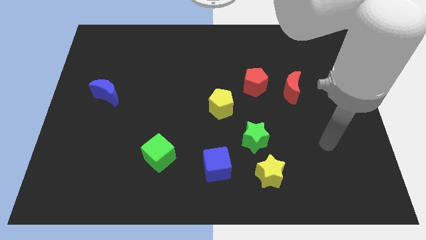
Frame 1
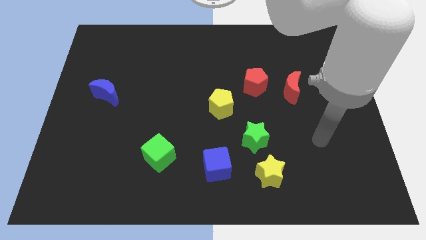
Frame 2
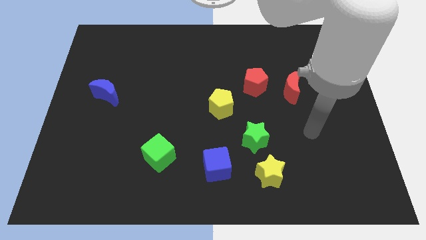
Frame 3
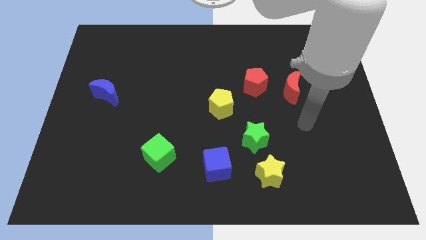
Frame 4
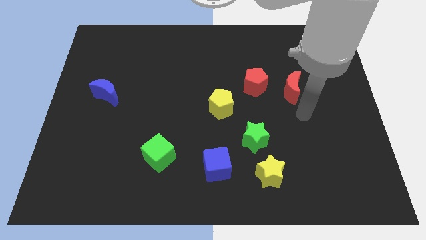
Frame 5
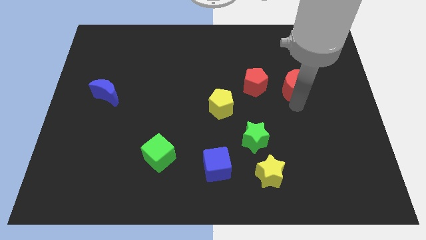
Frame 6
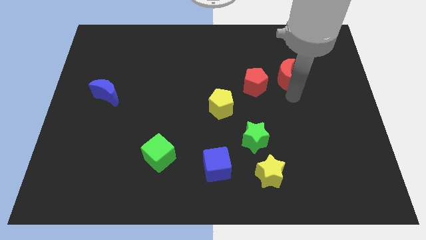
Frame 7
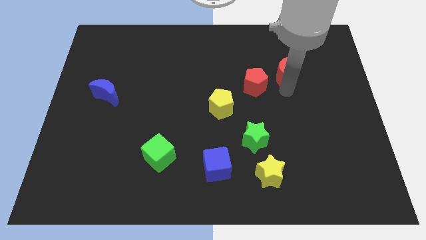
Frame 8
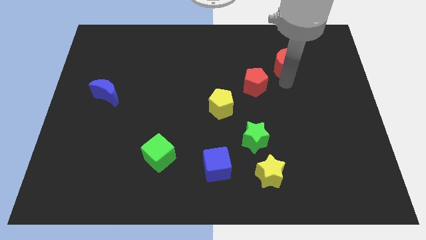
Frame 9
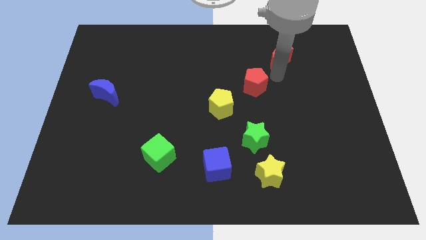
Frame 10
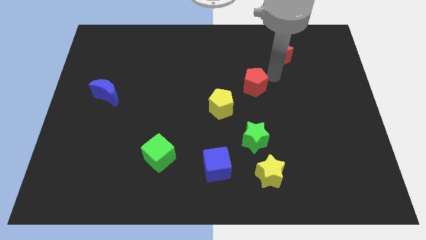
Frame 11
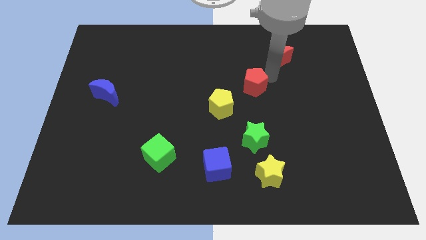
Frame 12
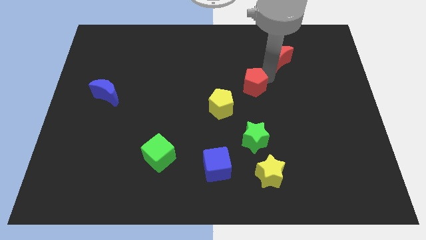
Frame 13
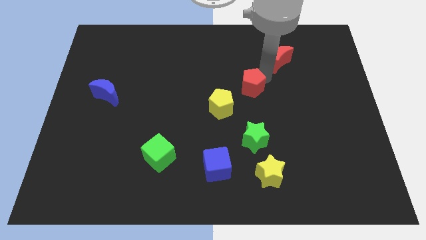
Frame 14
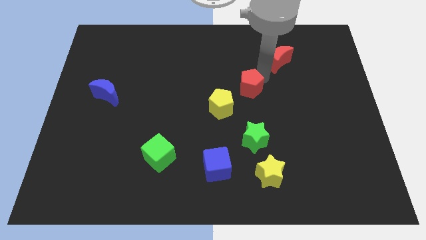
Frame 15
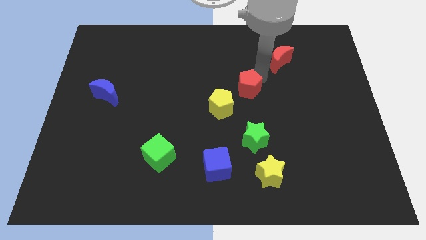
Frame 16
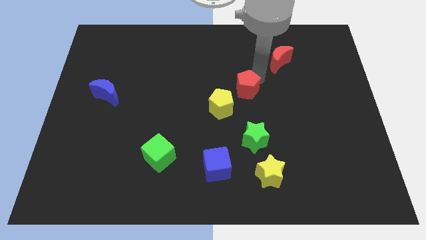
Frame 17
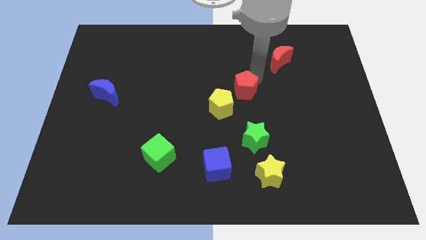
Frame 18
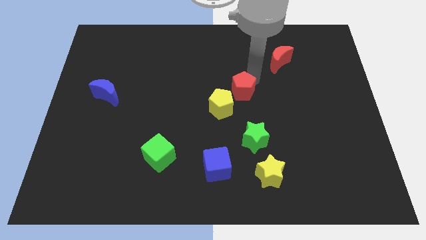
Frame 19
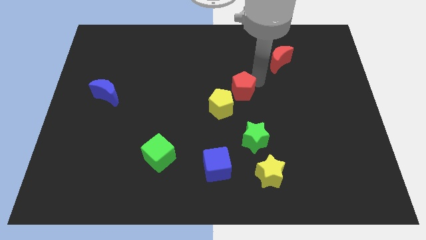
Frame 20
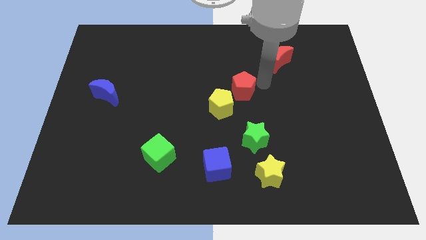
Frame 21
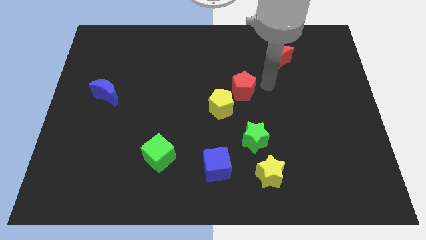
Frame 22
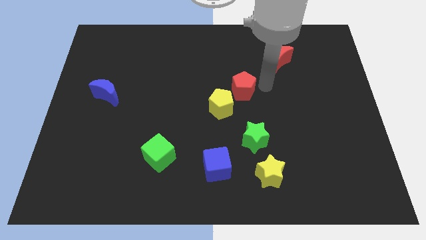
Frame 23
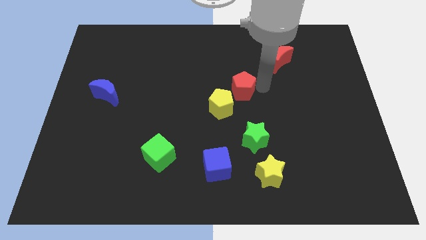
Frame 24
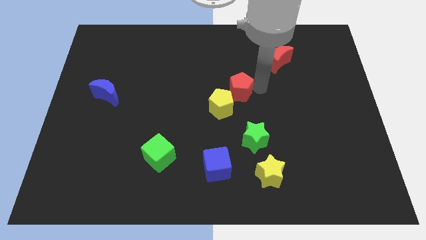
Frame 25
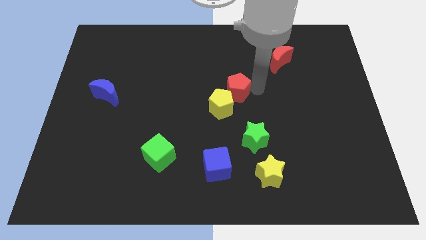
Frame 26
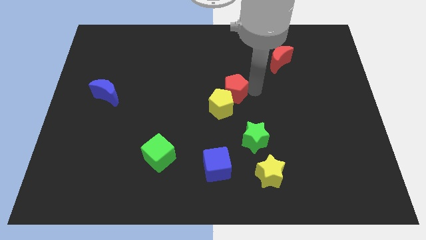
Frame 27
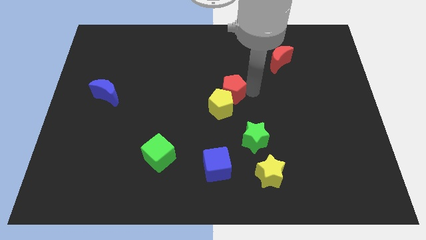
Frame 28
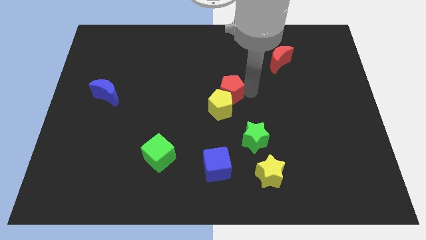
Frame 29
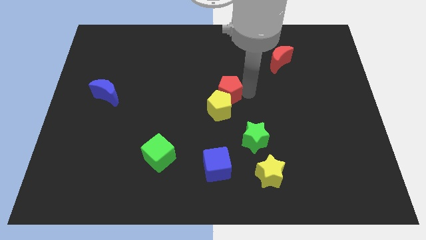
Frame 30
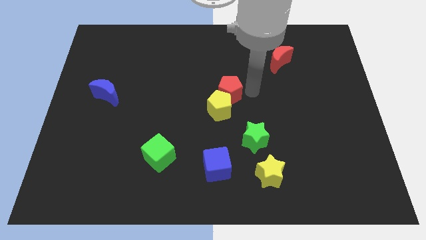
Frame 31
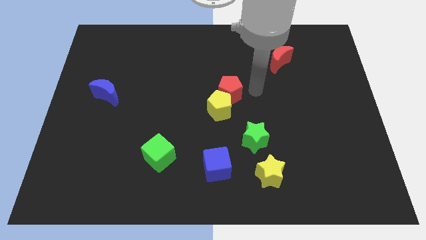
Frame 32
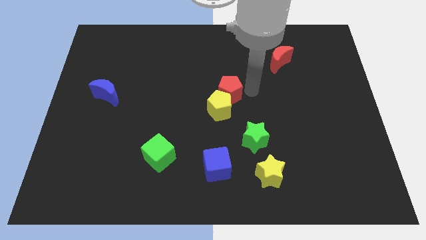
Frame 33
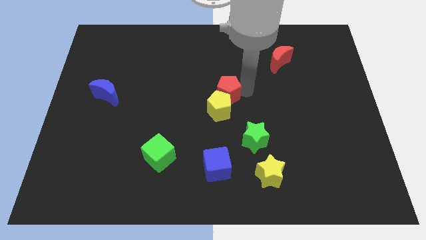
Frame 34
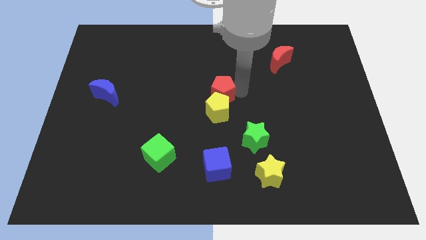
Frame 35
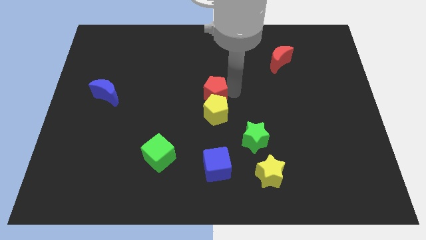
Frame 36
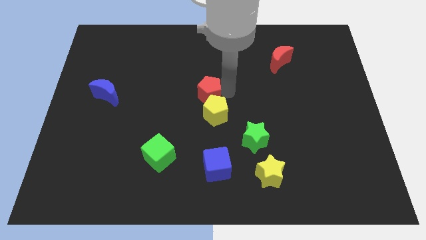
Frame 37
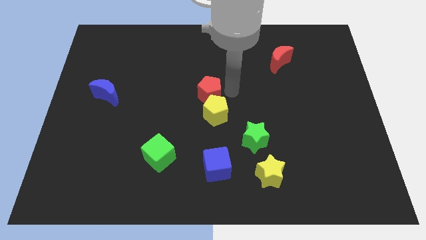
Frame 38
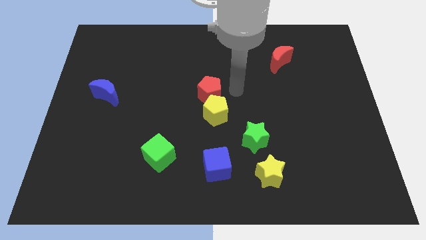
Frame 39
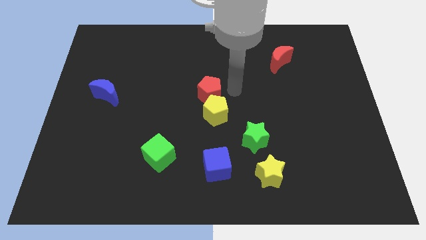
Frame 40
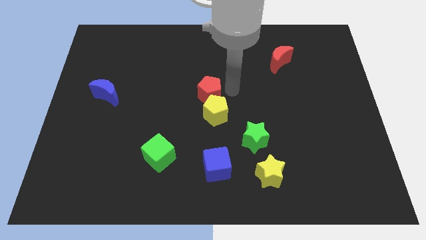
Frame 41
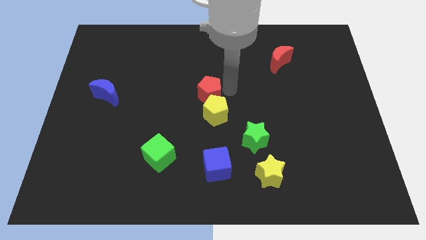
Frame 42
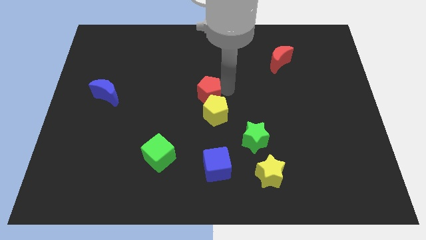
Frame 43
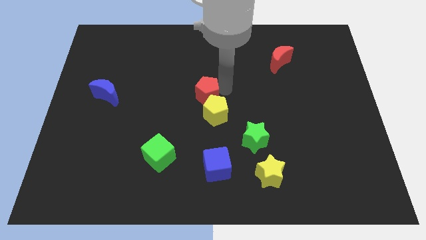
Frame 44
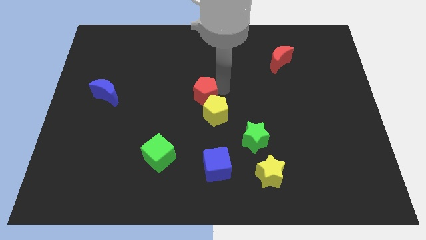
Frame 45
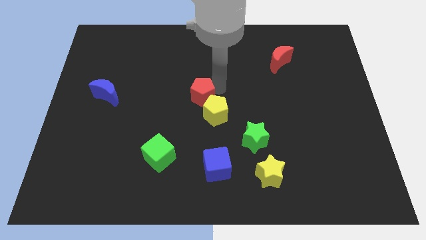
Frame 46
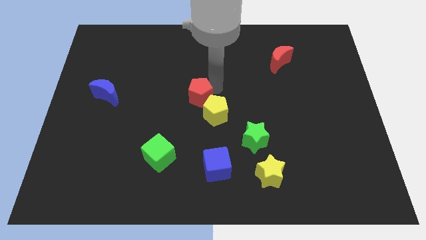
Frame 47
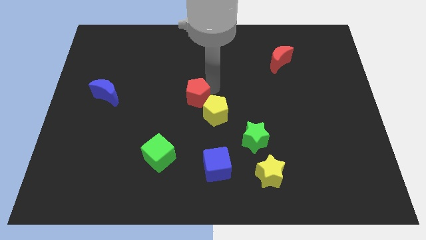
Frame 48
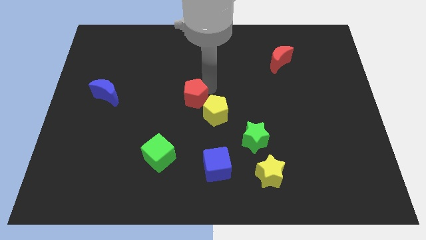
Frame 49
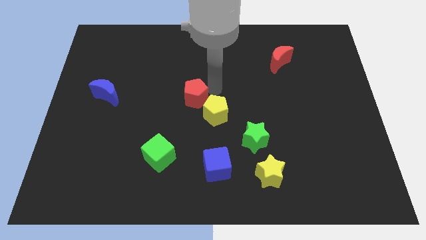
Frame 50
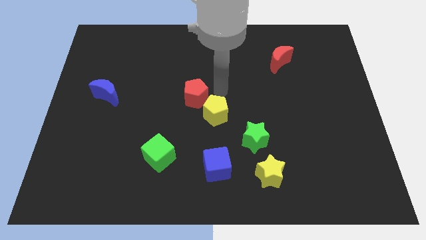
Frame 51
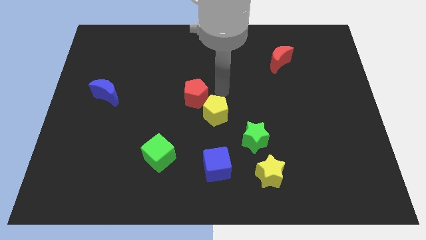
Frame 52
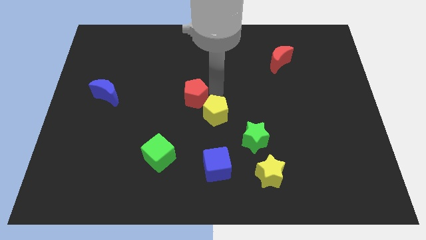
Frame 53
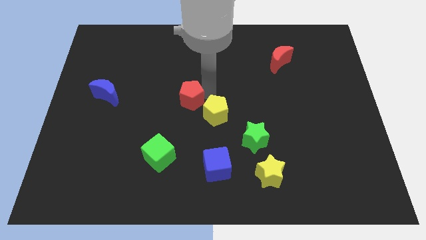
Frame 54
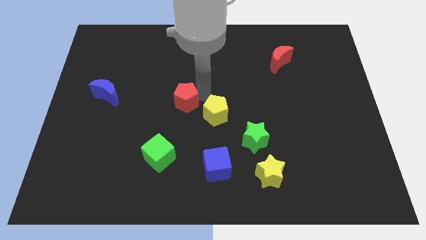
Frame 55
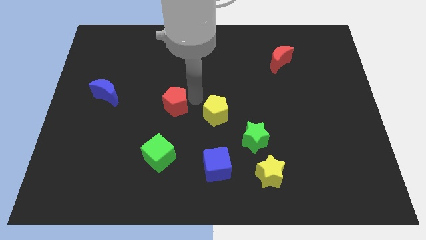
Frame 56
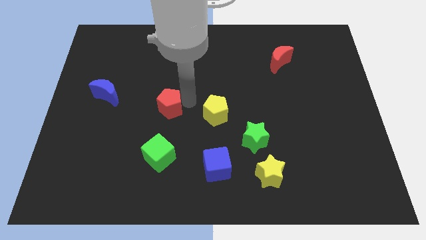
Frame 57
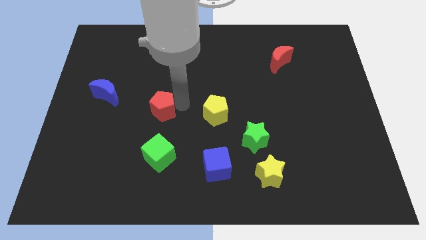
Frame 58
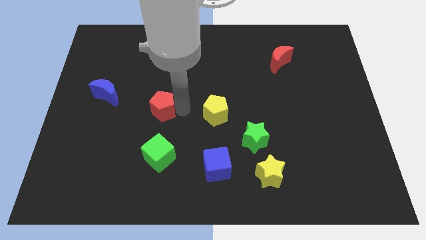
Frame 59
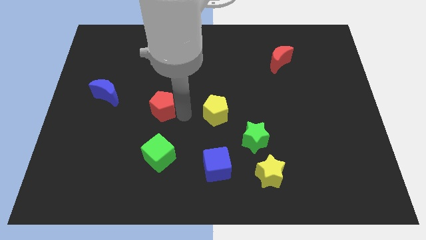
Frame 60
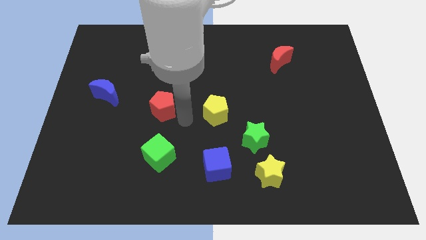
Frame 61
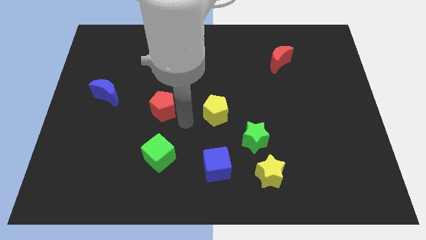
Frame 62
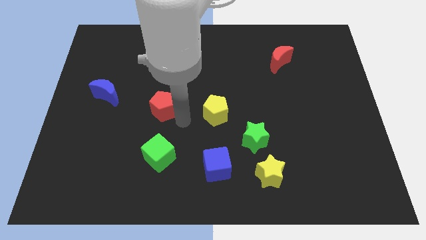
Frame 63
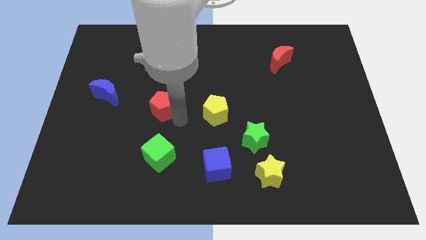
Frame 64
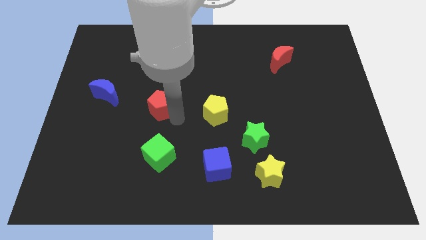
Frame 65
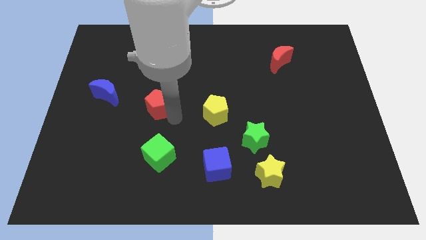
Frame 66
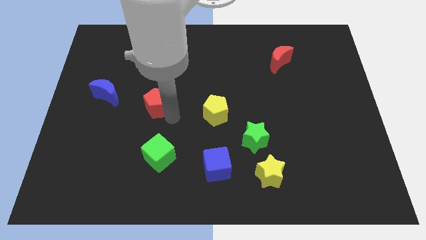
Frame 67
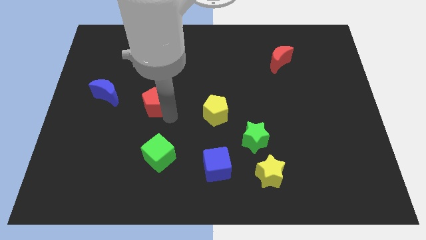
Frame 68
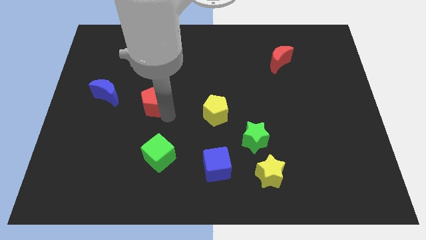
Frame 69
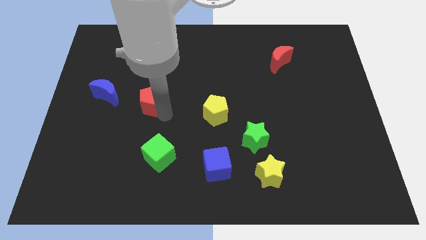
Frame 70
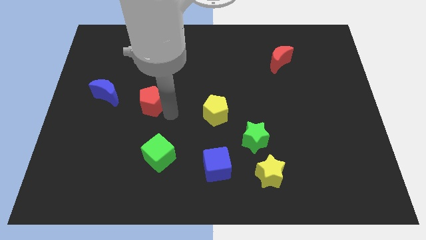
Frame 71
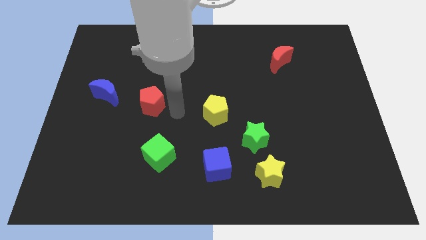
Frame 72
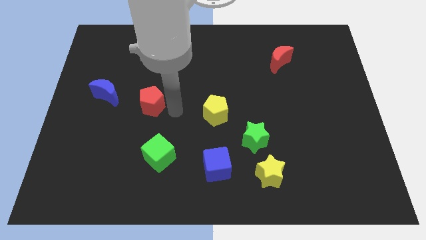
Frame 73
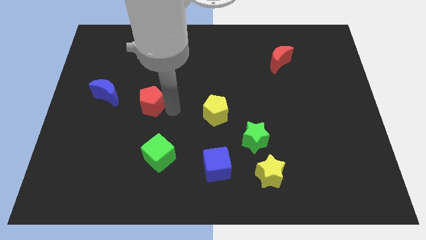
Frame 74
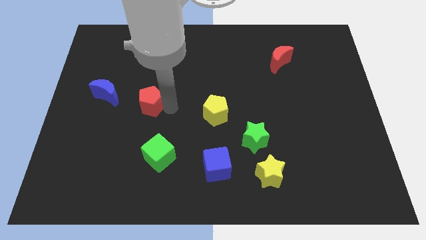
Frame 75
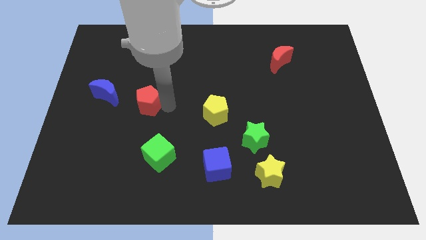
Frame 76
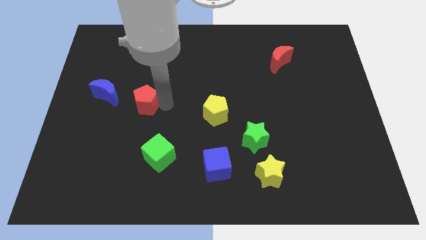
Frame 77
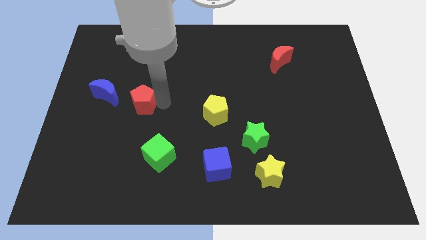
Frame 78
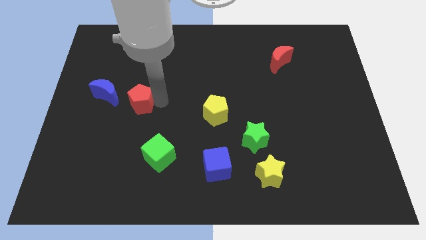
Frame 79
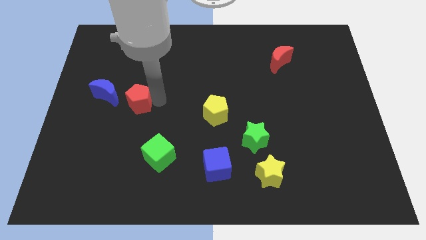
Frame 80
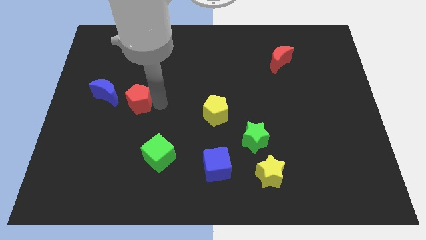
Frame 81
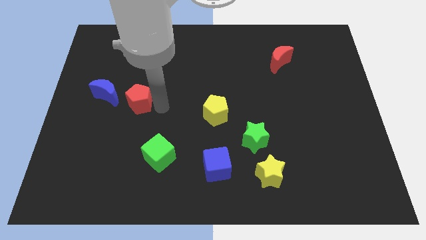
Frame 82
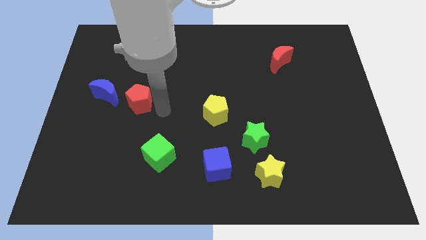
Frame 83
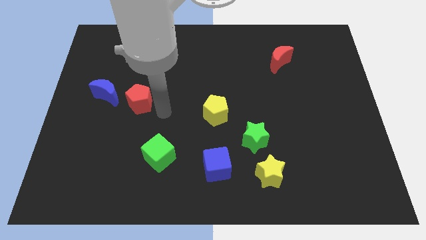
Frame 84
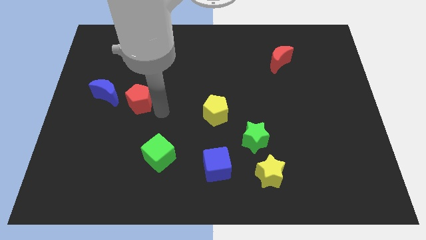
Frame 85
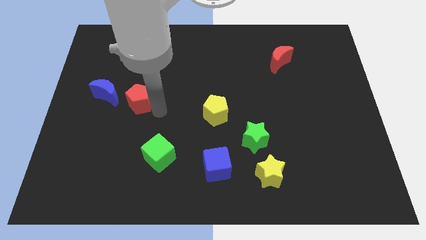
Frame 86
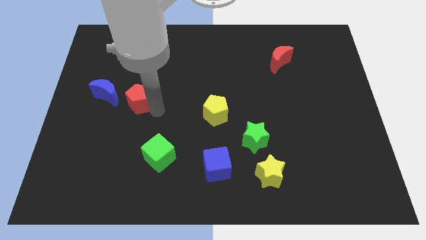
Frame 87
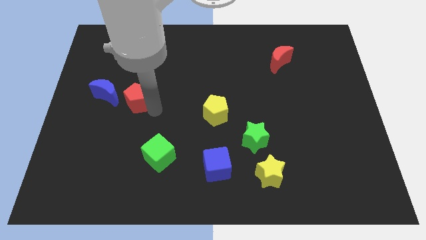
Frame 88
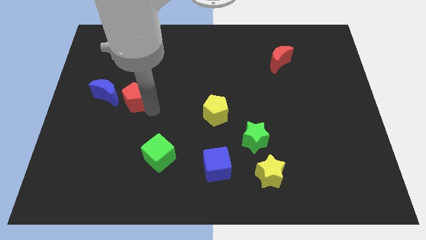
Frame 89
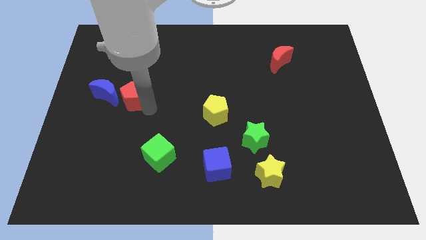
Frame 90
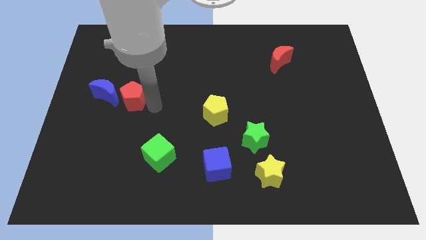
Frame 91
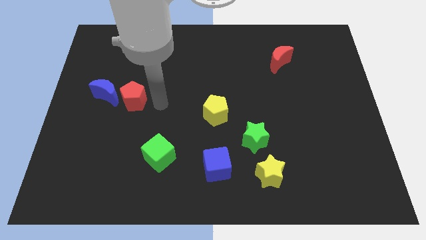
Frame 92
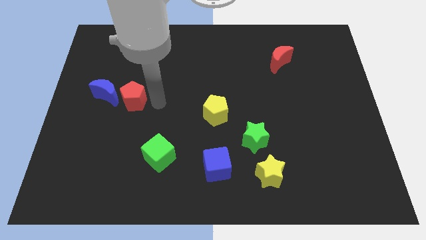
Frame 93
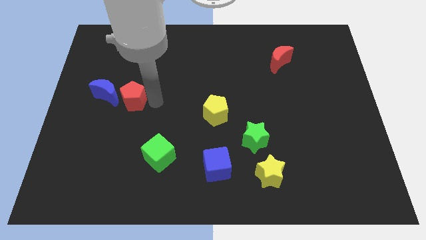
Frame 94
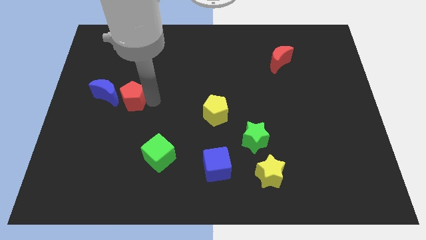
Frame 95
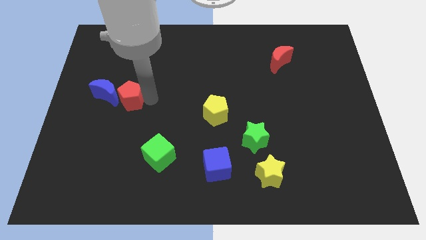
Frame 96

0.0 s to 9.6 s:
put the red pentagon towards the blue moon
